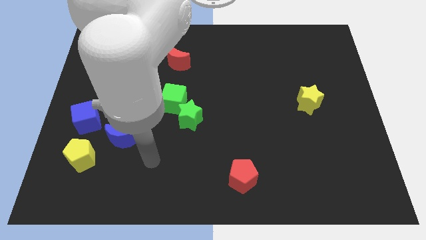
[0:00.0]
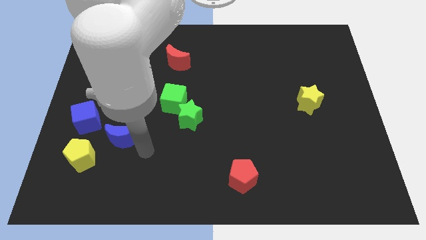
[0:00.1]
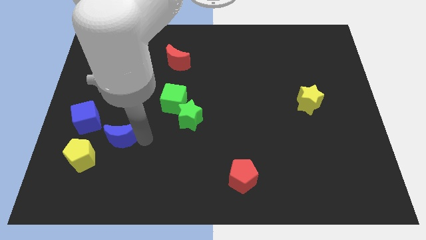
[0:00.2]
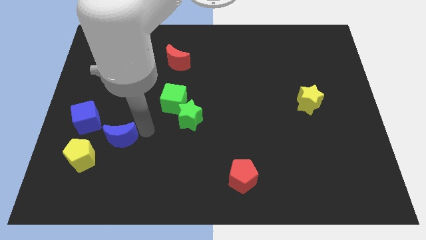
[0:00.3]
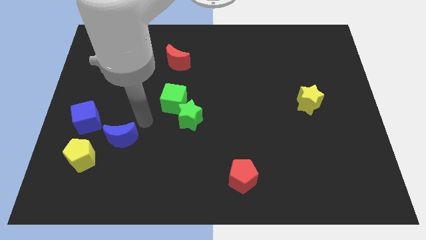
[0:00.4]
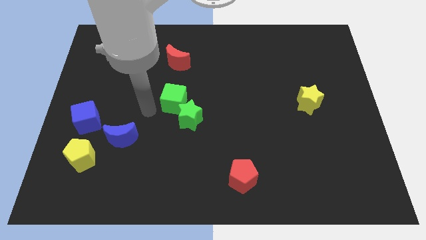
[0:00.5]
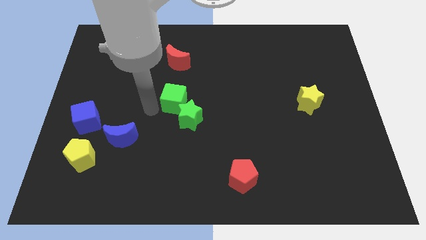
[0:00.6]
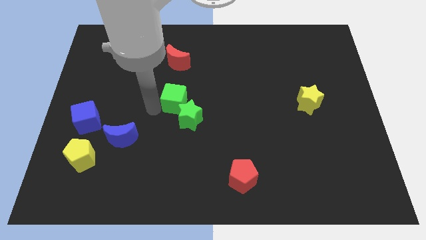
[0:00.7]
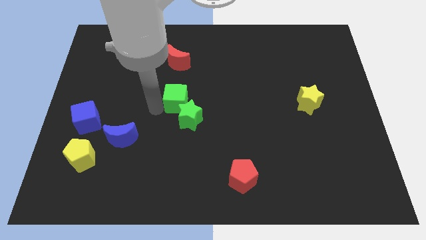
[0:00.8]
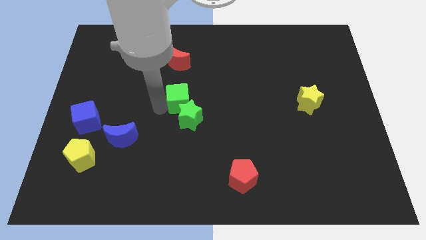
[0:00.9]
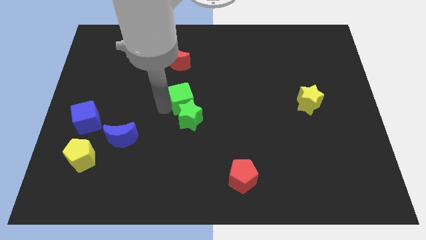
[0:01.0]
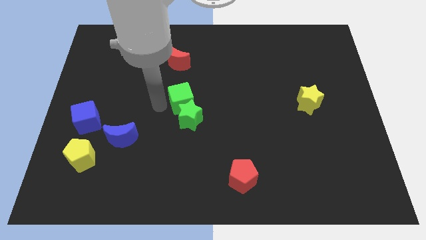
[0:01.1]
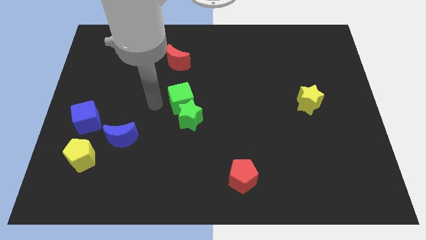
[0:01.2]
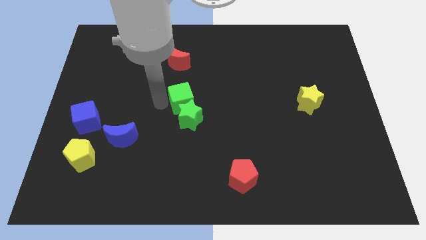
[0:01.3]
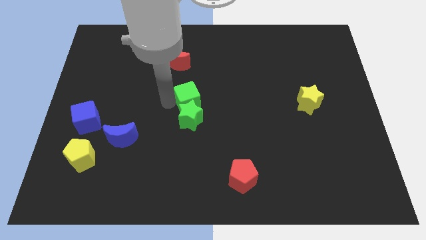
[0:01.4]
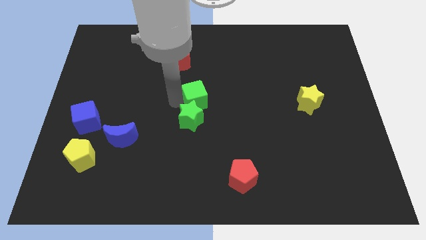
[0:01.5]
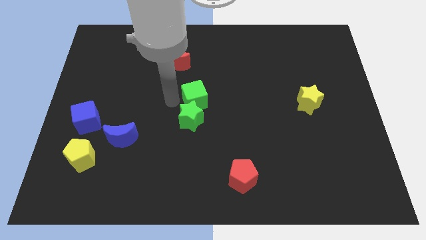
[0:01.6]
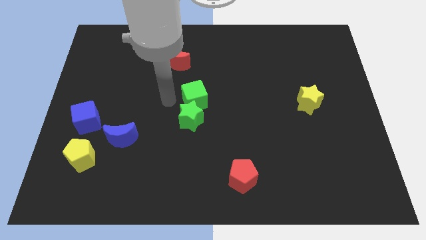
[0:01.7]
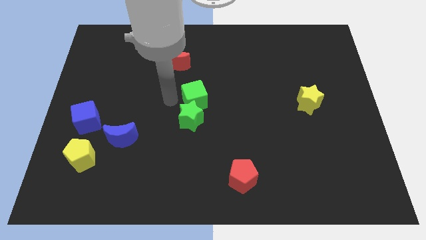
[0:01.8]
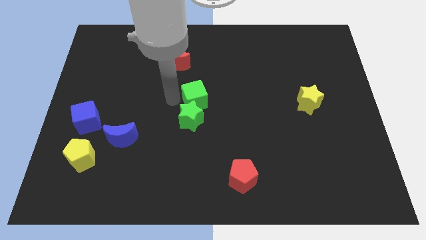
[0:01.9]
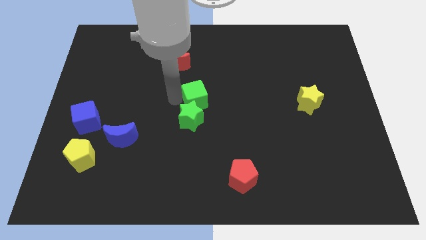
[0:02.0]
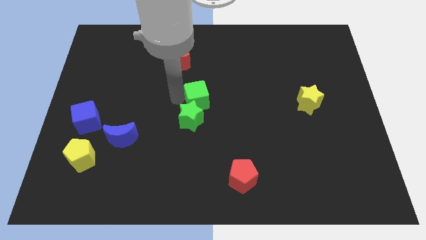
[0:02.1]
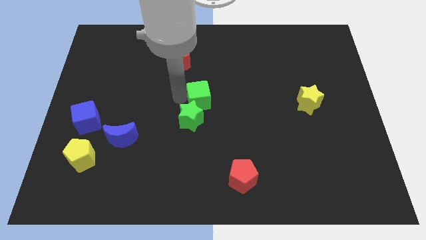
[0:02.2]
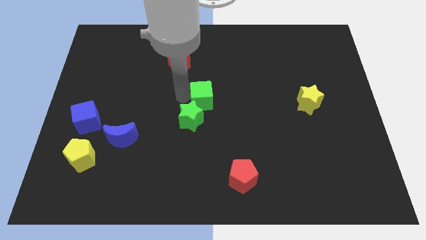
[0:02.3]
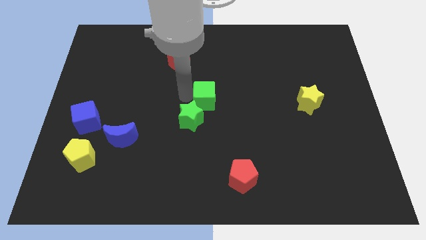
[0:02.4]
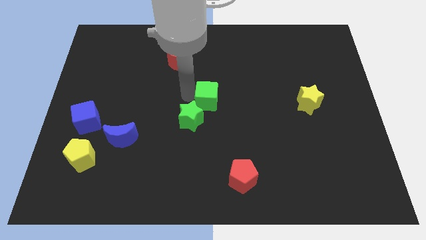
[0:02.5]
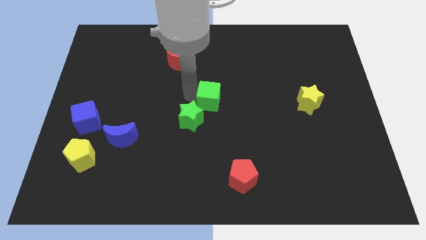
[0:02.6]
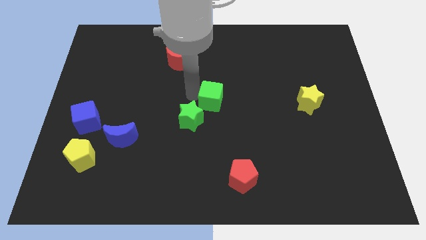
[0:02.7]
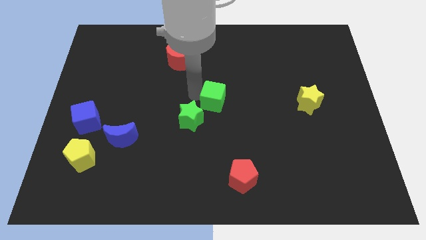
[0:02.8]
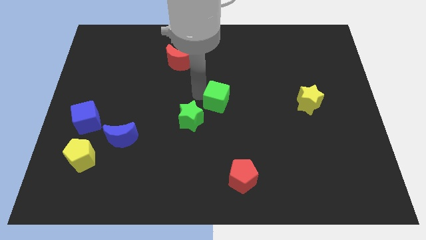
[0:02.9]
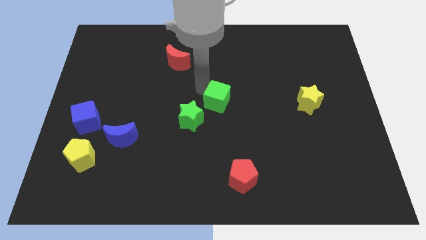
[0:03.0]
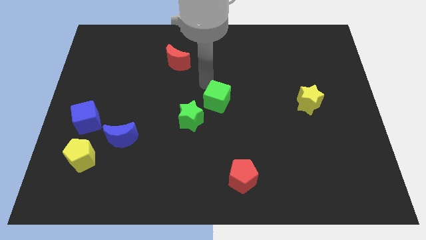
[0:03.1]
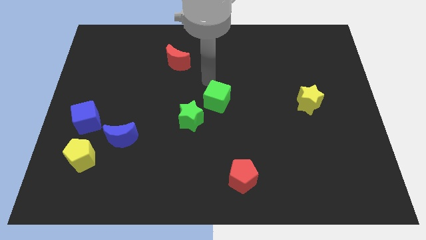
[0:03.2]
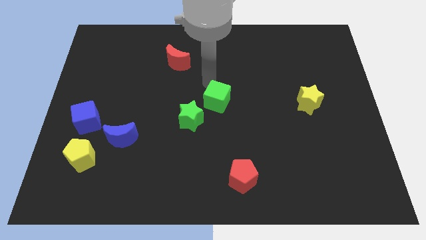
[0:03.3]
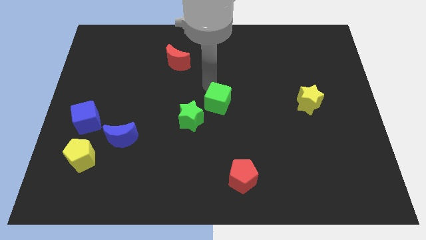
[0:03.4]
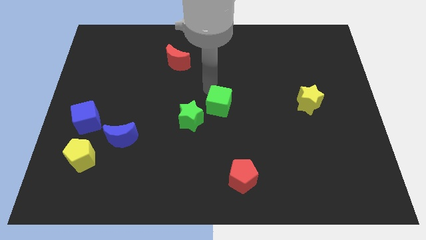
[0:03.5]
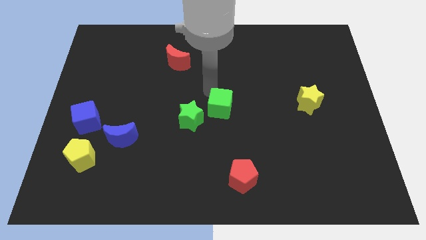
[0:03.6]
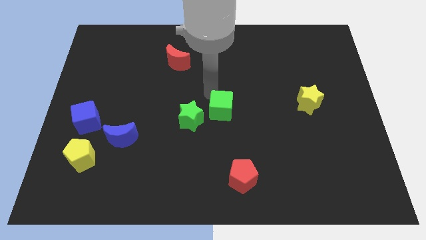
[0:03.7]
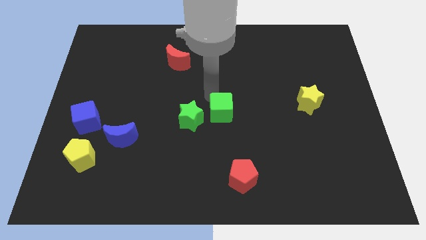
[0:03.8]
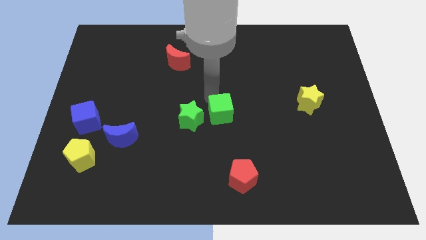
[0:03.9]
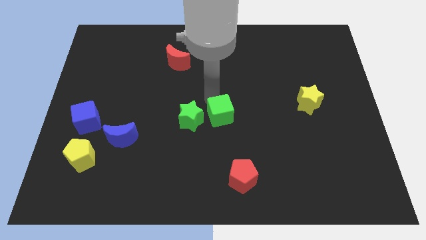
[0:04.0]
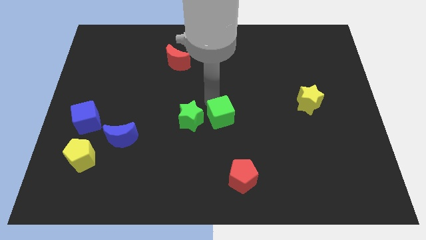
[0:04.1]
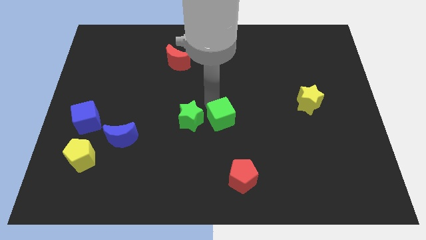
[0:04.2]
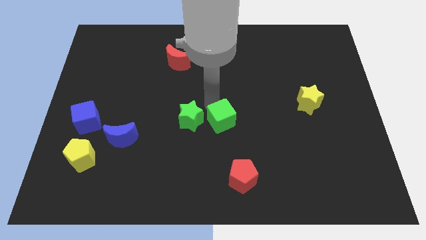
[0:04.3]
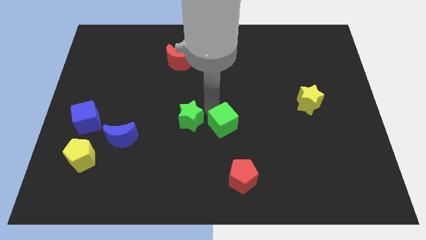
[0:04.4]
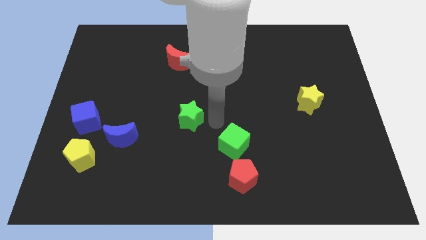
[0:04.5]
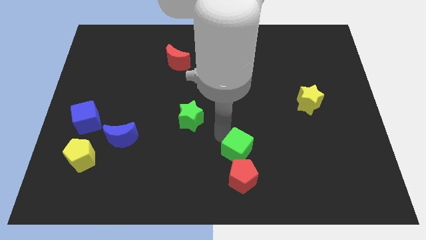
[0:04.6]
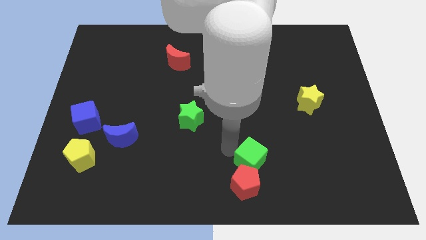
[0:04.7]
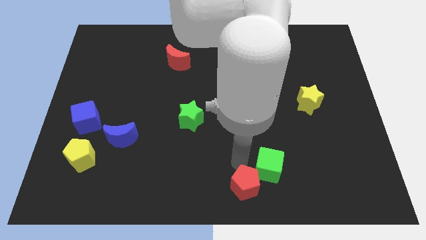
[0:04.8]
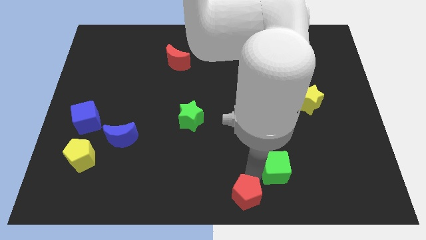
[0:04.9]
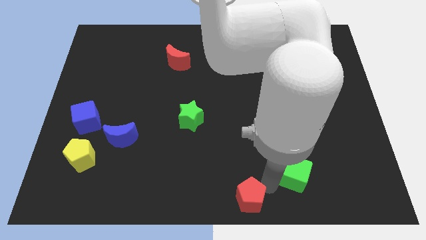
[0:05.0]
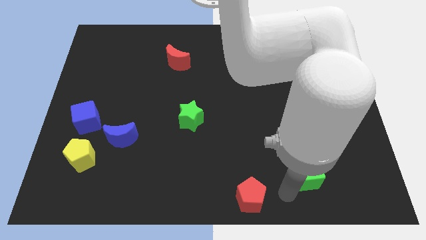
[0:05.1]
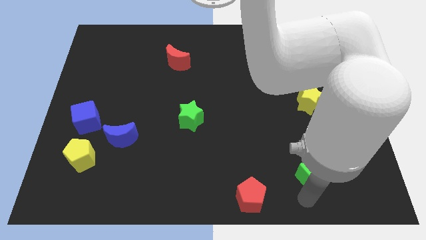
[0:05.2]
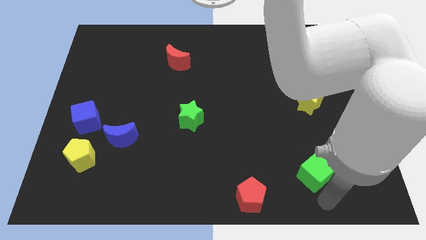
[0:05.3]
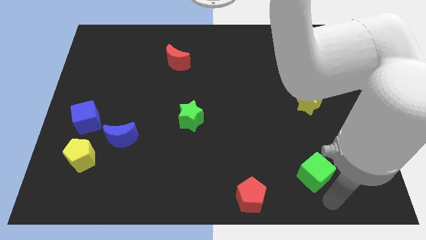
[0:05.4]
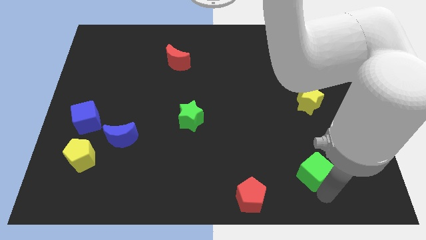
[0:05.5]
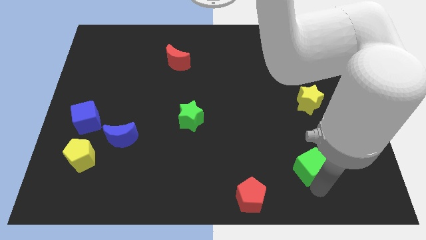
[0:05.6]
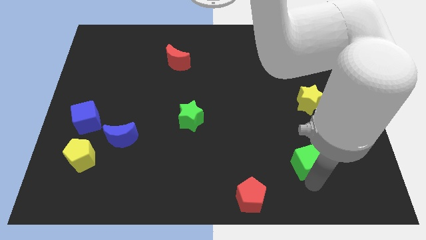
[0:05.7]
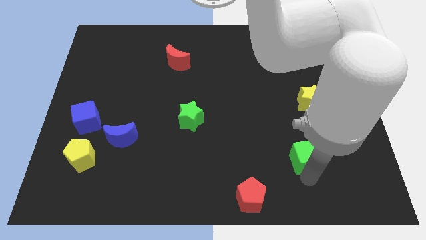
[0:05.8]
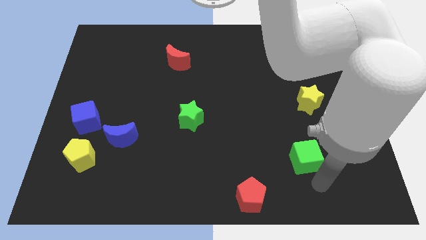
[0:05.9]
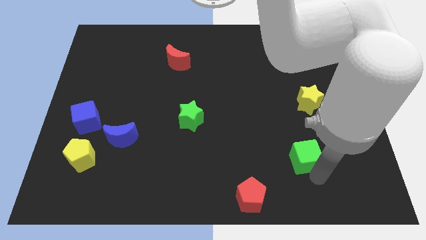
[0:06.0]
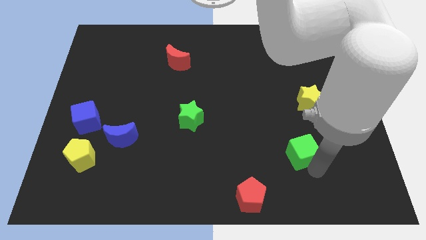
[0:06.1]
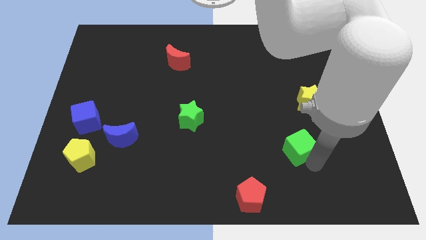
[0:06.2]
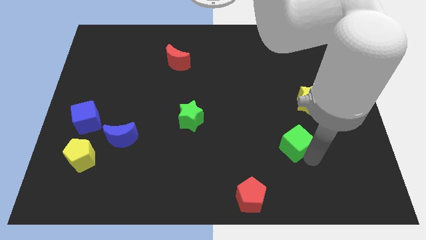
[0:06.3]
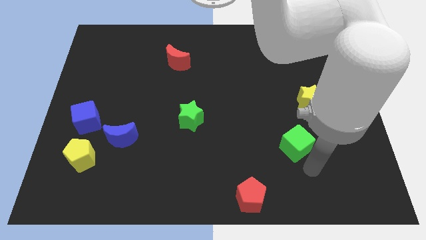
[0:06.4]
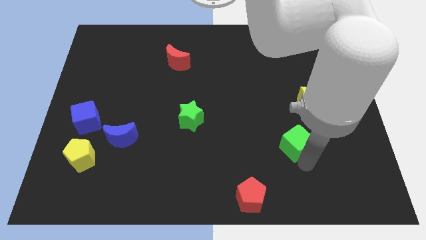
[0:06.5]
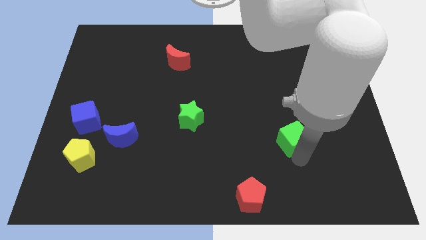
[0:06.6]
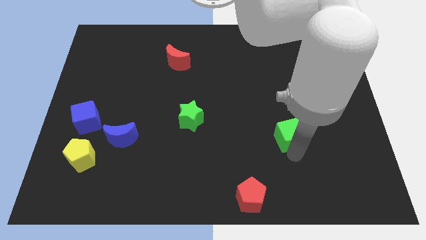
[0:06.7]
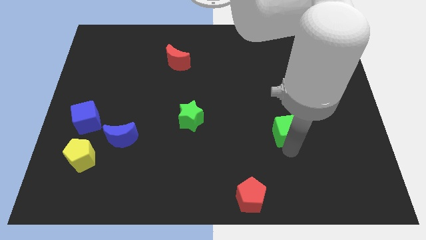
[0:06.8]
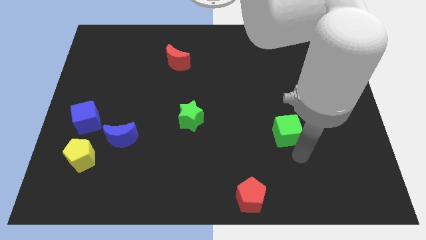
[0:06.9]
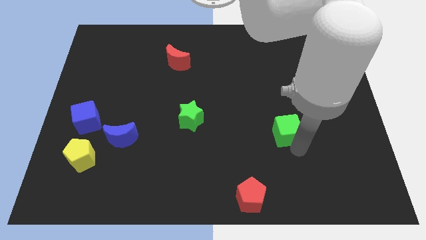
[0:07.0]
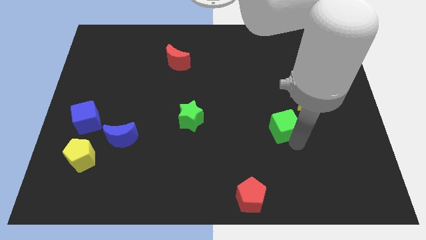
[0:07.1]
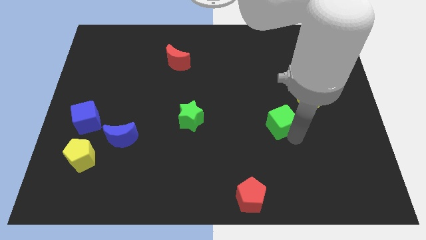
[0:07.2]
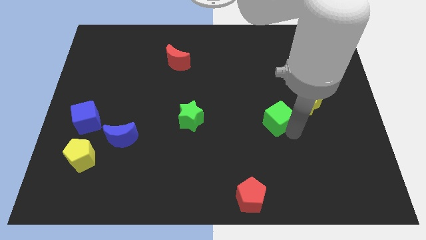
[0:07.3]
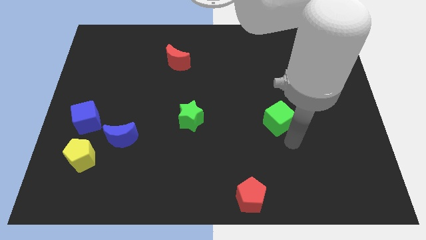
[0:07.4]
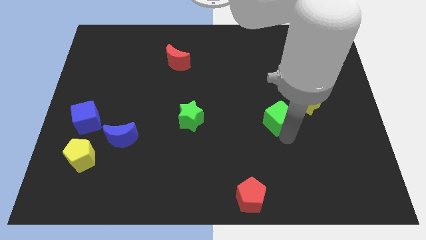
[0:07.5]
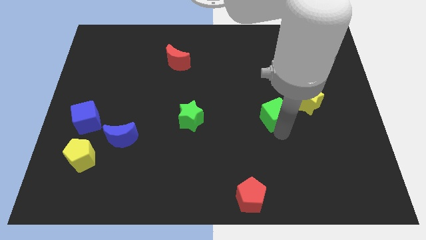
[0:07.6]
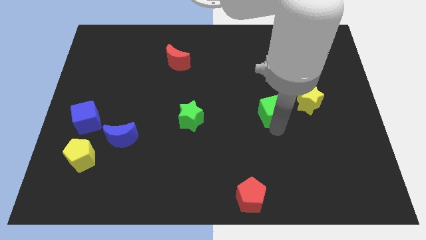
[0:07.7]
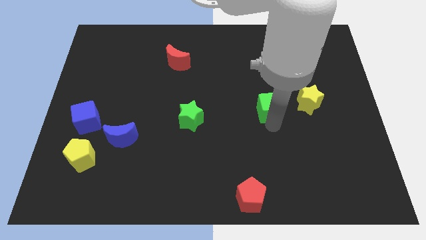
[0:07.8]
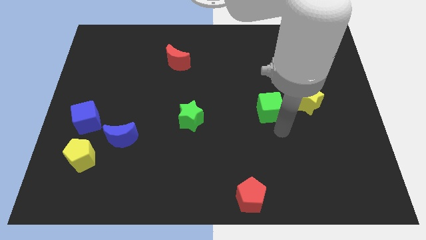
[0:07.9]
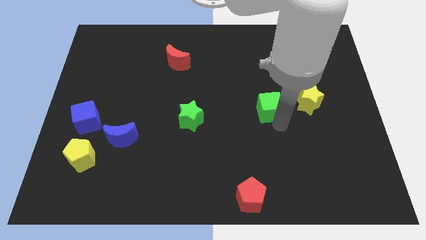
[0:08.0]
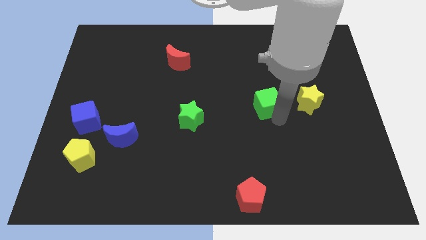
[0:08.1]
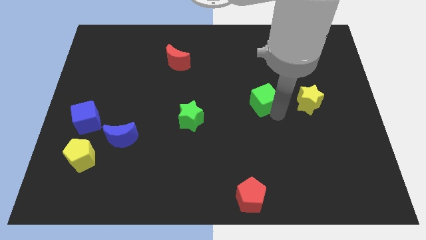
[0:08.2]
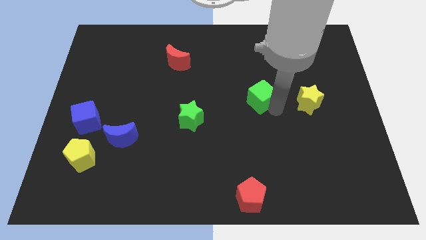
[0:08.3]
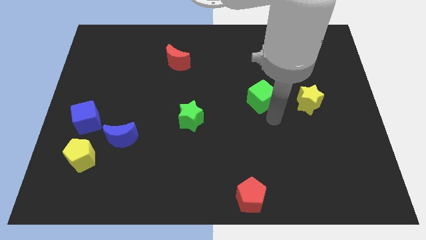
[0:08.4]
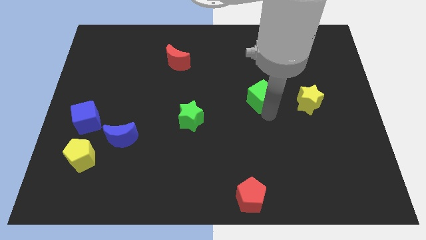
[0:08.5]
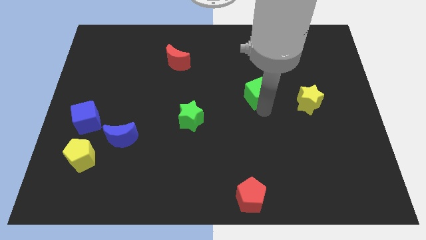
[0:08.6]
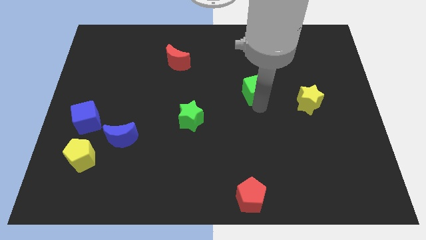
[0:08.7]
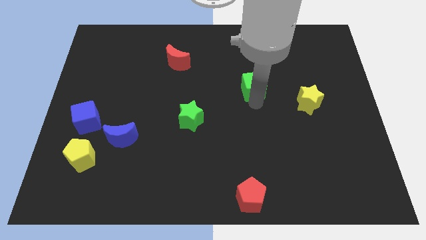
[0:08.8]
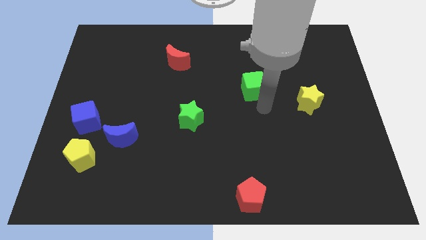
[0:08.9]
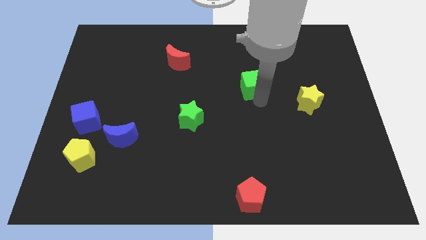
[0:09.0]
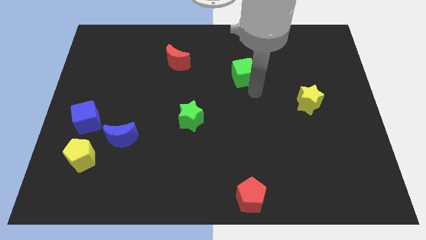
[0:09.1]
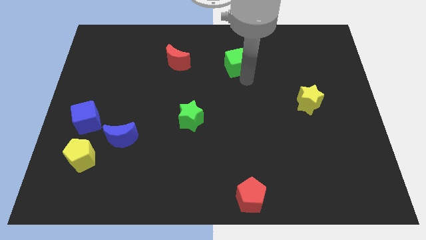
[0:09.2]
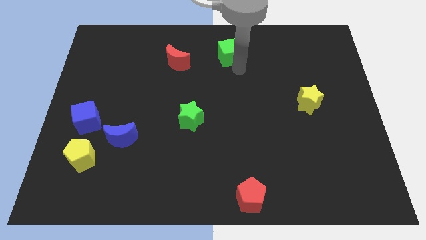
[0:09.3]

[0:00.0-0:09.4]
move the green cube to the top
